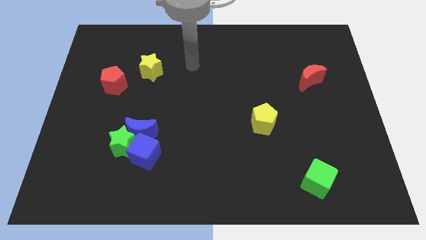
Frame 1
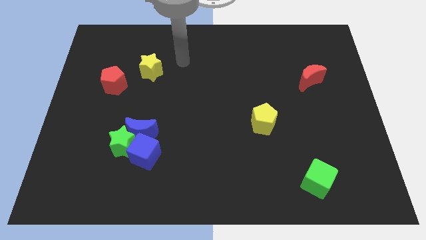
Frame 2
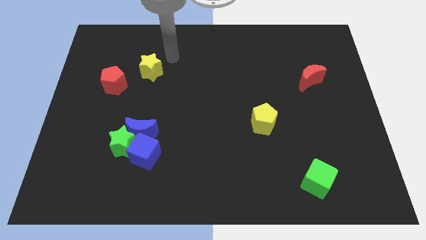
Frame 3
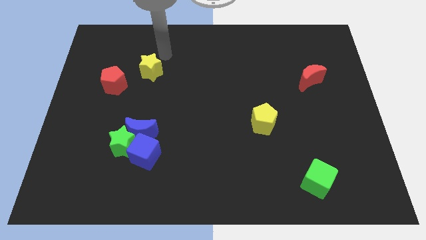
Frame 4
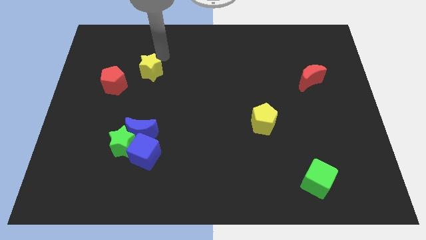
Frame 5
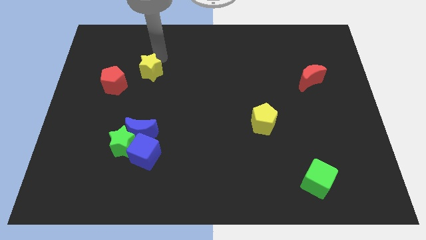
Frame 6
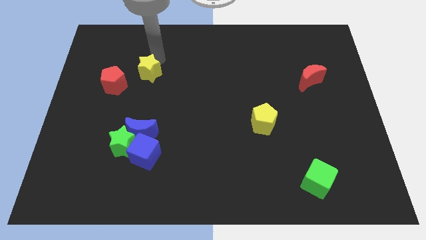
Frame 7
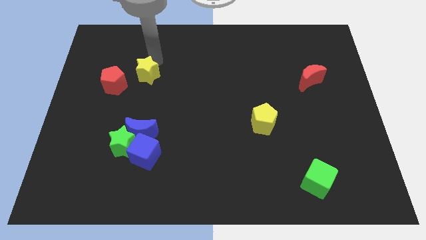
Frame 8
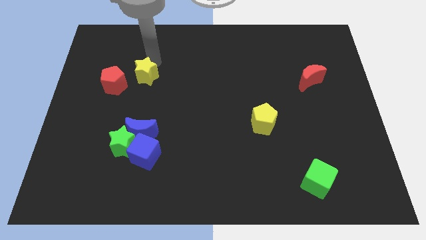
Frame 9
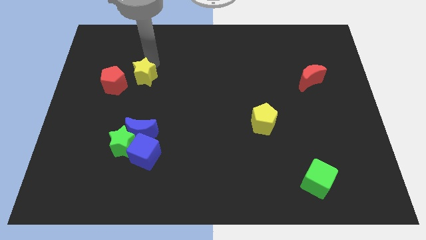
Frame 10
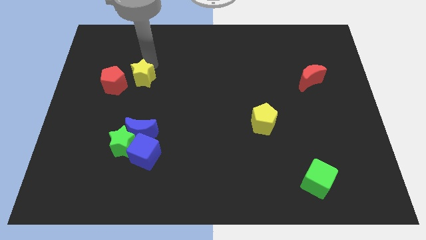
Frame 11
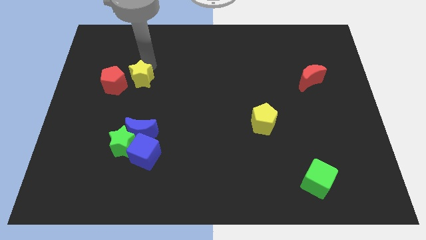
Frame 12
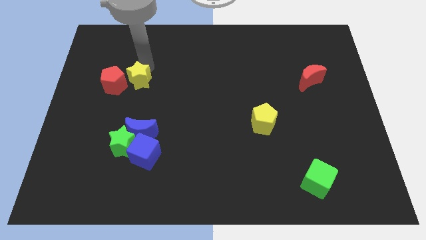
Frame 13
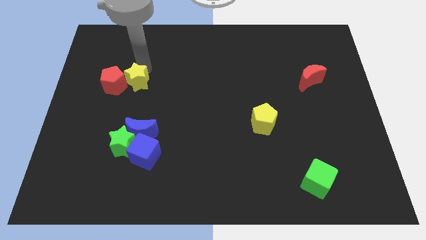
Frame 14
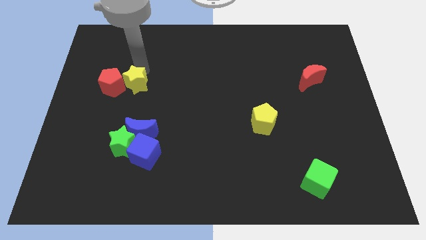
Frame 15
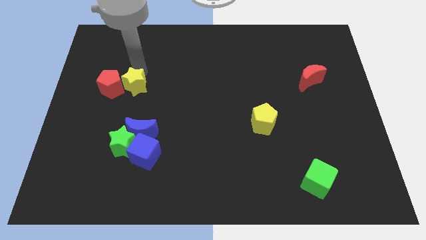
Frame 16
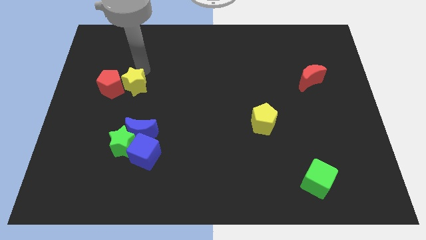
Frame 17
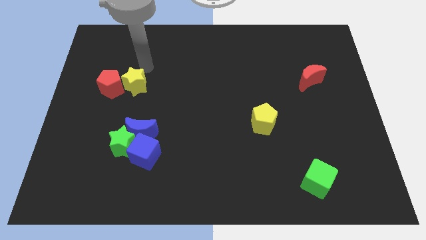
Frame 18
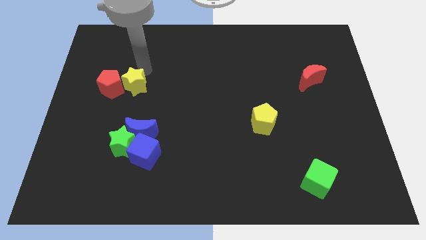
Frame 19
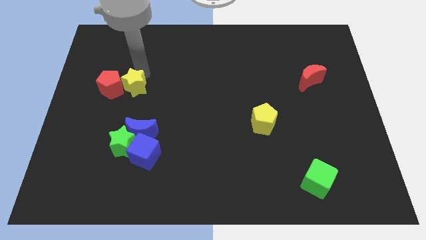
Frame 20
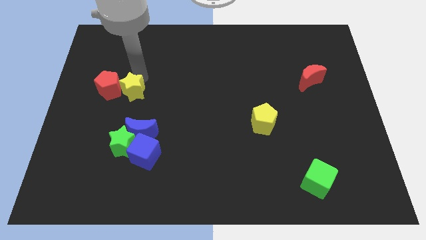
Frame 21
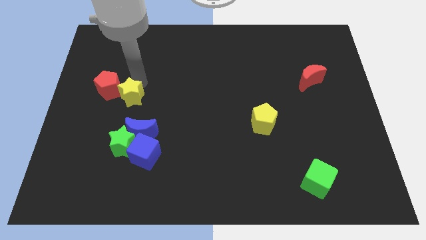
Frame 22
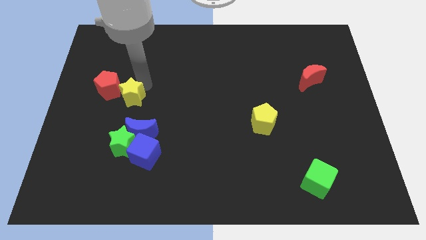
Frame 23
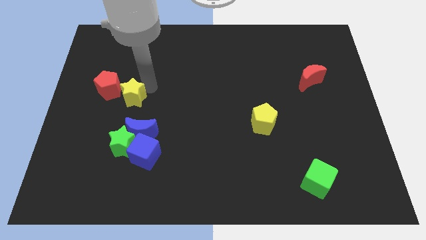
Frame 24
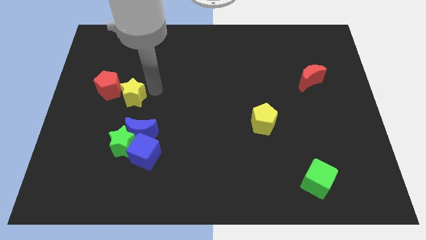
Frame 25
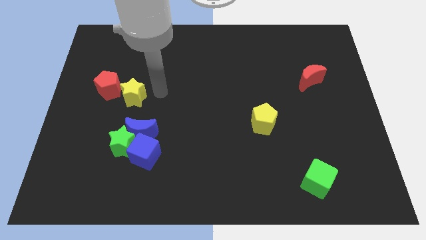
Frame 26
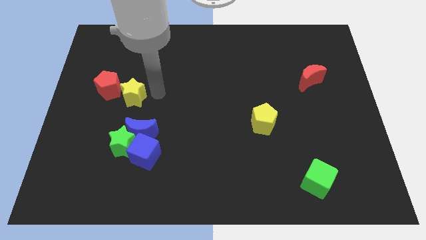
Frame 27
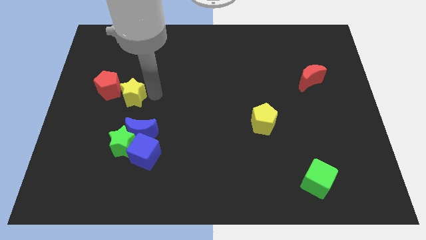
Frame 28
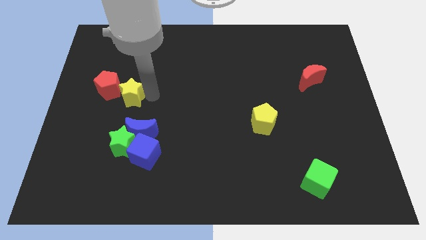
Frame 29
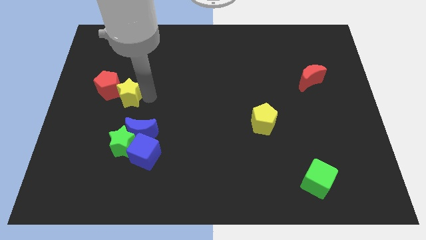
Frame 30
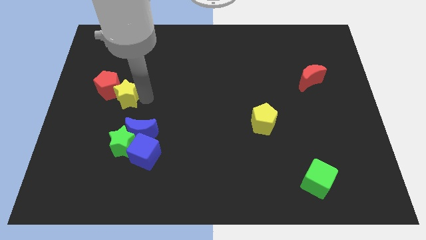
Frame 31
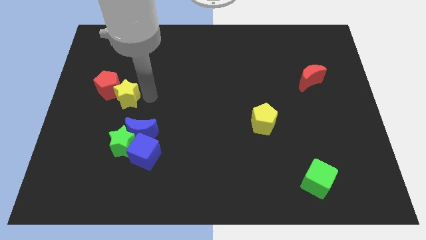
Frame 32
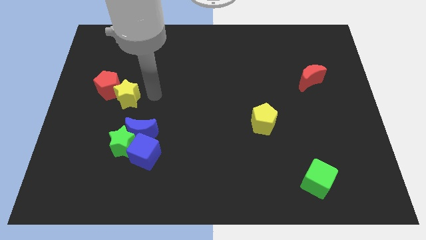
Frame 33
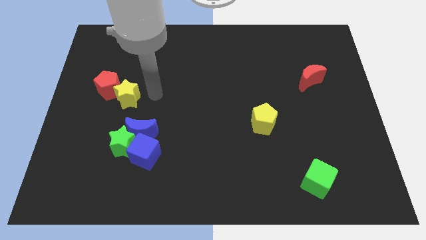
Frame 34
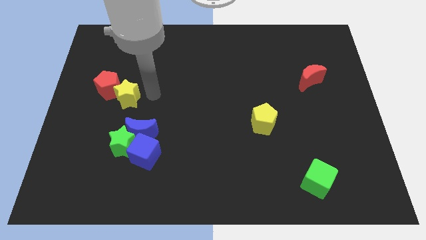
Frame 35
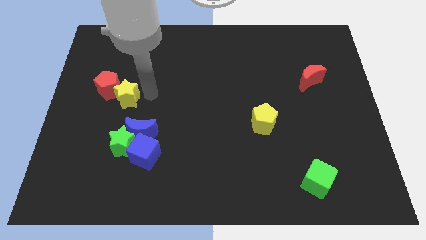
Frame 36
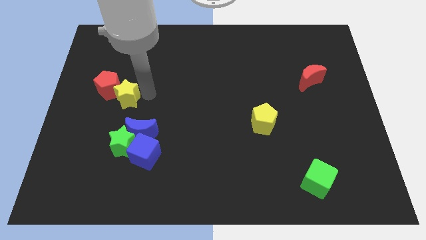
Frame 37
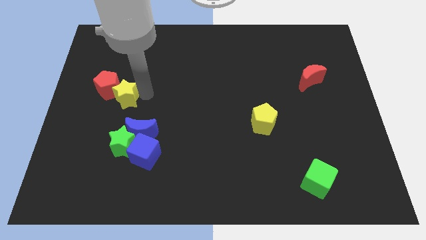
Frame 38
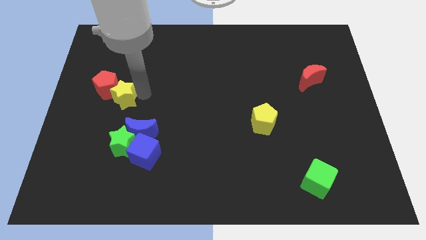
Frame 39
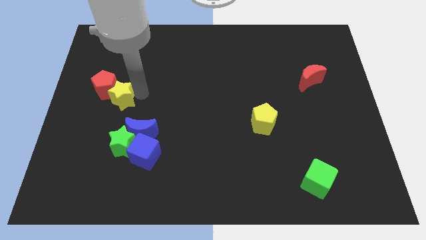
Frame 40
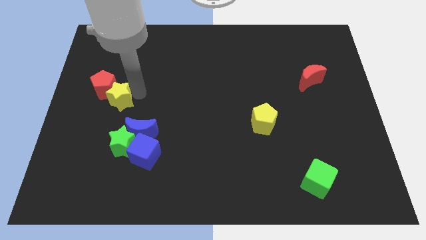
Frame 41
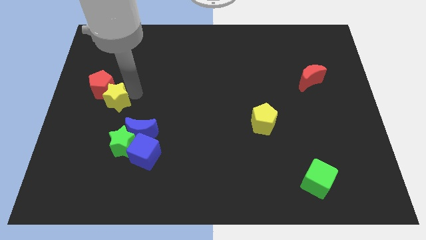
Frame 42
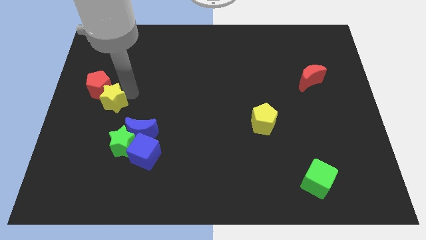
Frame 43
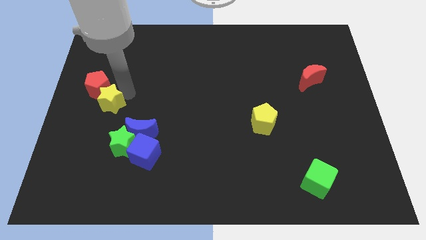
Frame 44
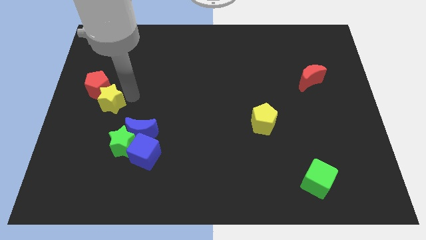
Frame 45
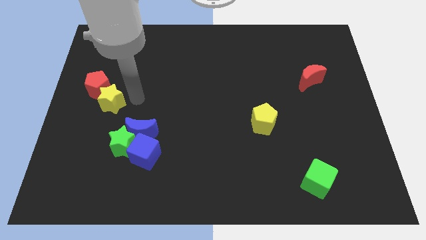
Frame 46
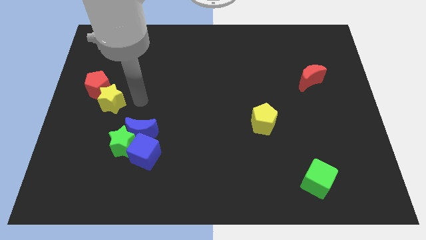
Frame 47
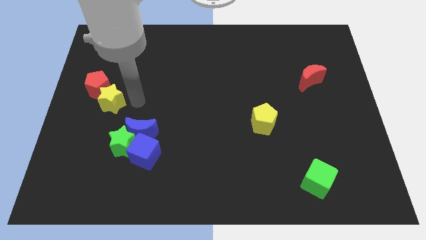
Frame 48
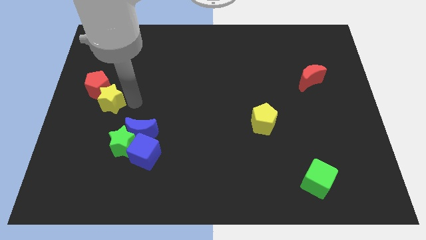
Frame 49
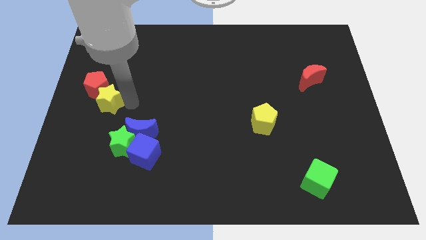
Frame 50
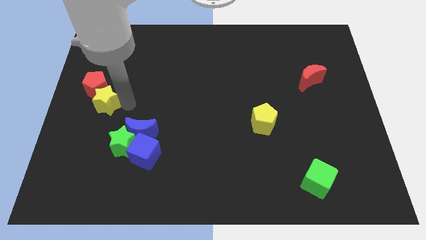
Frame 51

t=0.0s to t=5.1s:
slide the yellow star to the left side of the board

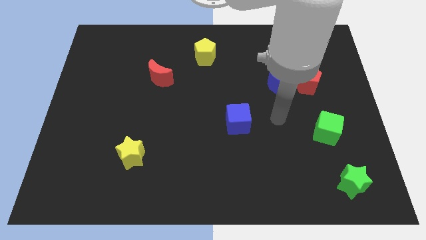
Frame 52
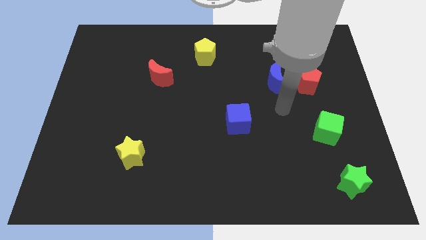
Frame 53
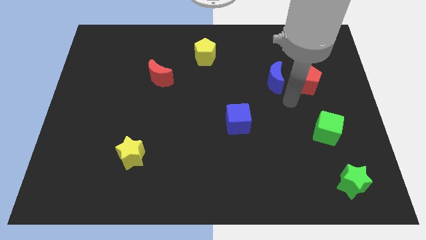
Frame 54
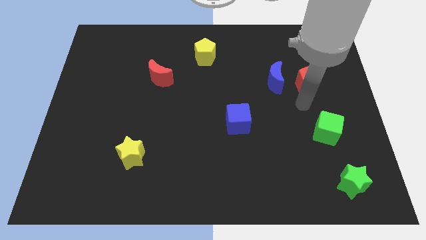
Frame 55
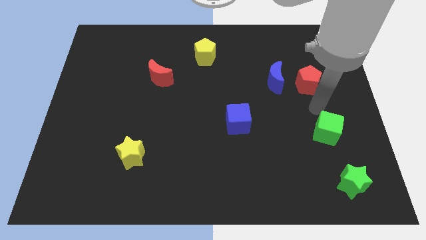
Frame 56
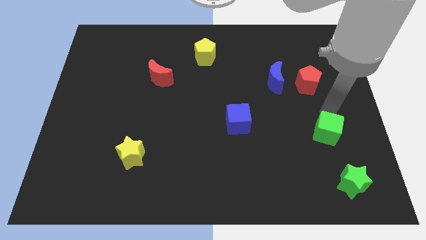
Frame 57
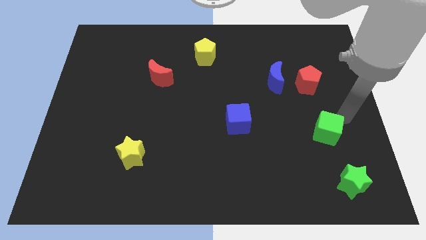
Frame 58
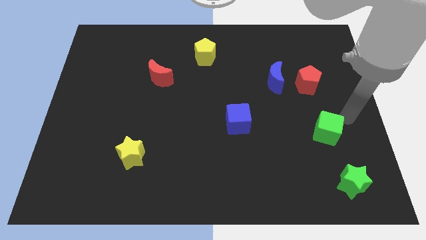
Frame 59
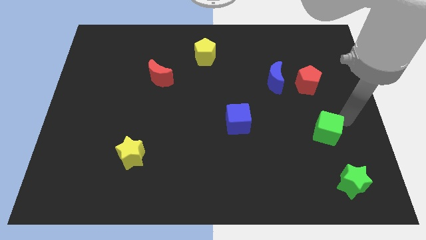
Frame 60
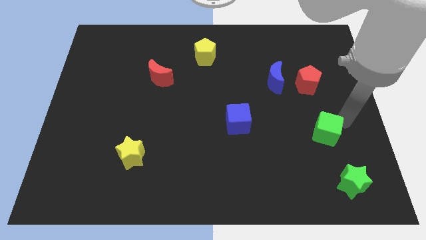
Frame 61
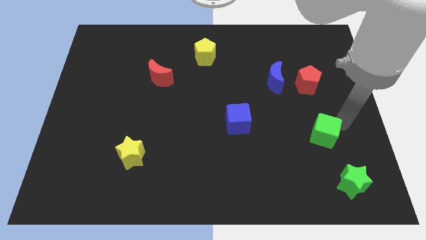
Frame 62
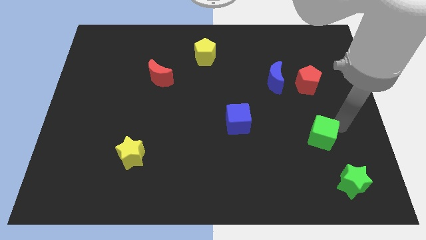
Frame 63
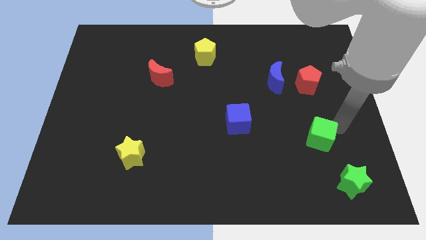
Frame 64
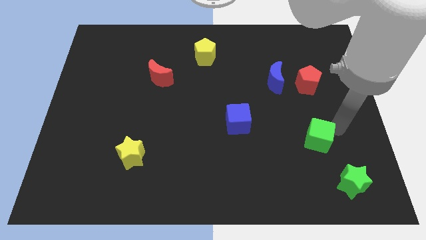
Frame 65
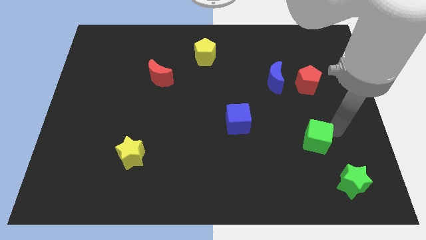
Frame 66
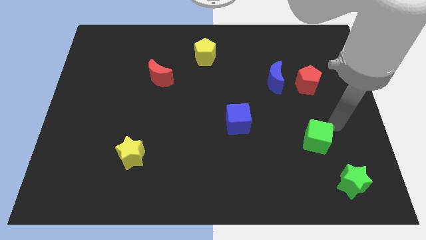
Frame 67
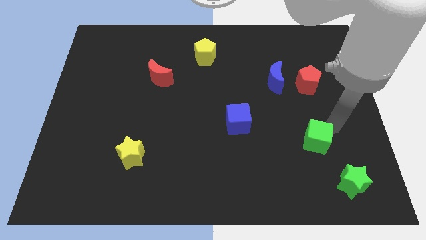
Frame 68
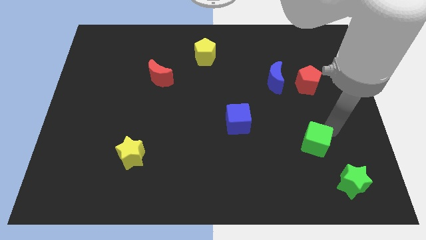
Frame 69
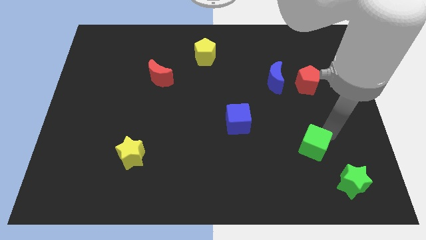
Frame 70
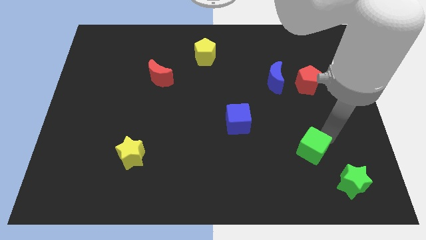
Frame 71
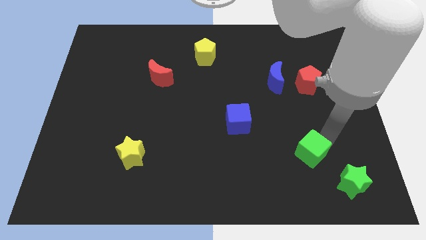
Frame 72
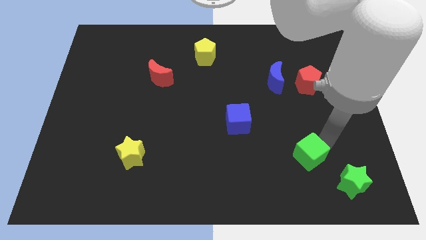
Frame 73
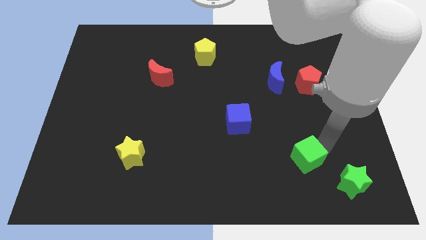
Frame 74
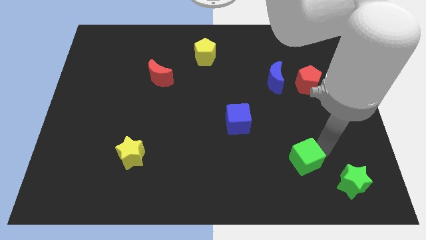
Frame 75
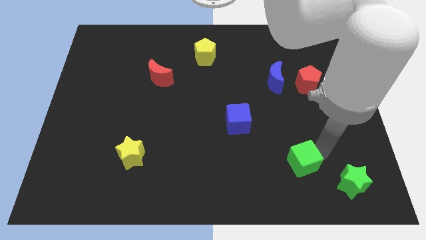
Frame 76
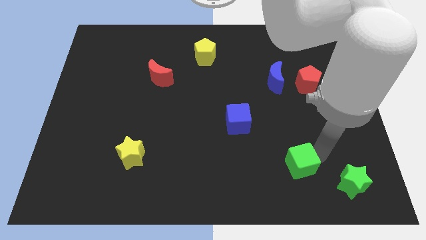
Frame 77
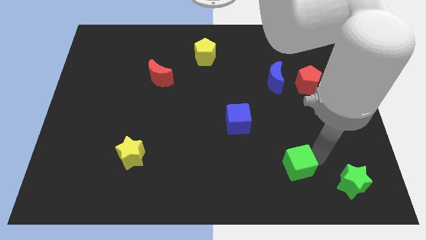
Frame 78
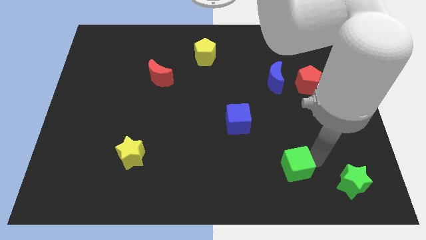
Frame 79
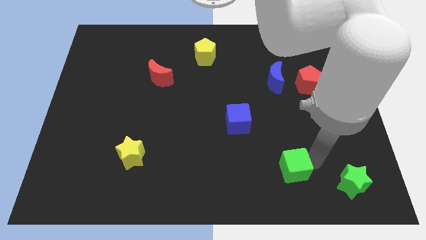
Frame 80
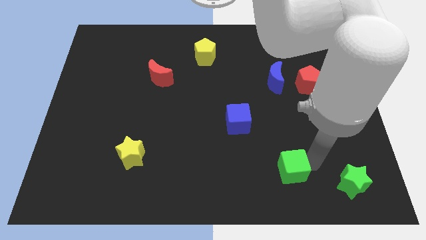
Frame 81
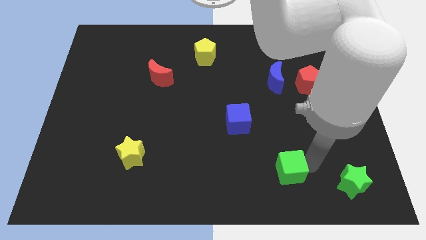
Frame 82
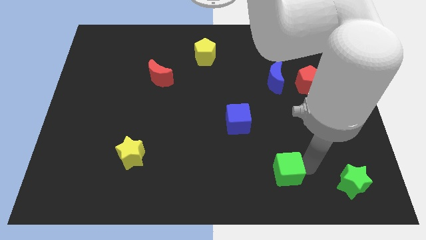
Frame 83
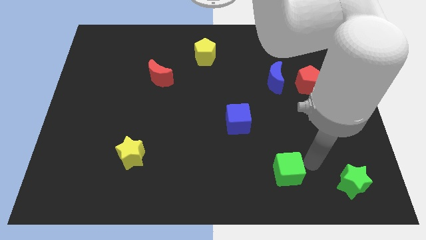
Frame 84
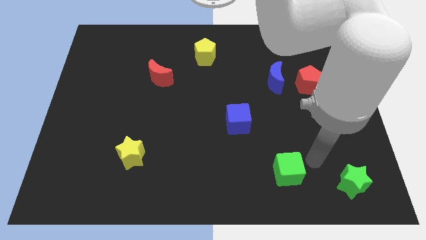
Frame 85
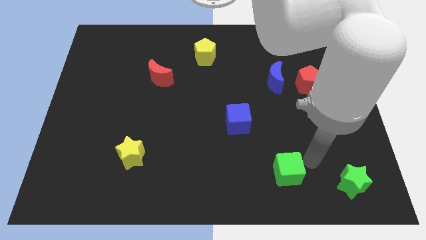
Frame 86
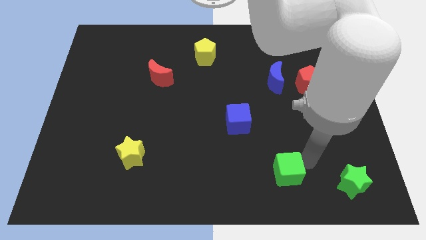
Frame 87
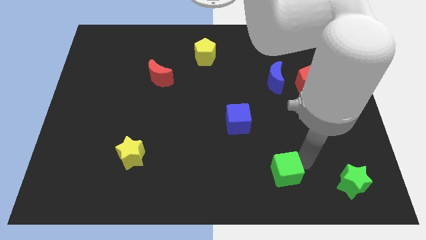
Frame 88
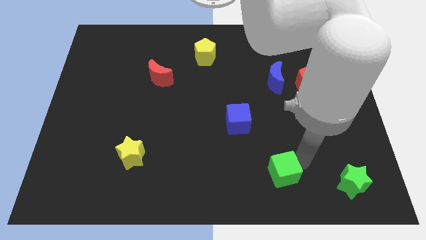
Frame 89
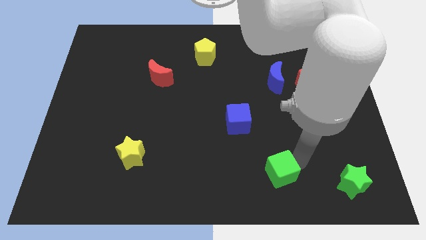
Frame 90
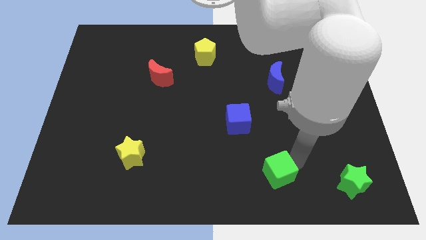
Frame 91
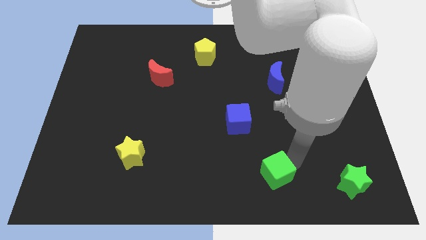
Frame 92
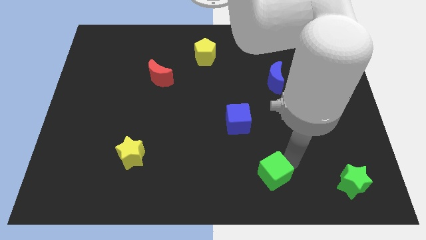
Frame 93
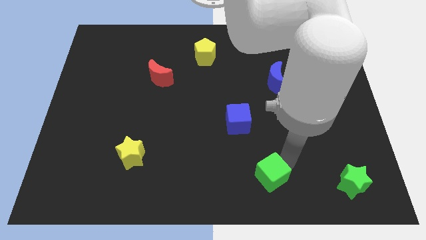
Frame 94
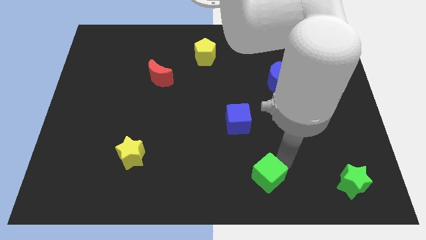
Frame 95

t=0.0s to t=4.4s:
push the green cube to the bottom
